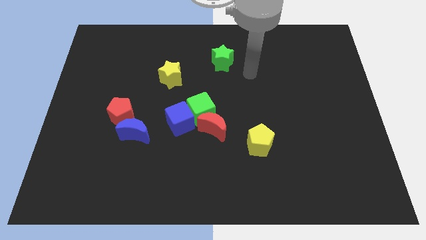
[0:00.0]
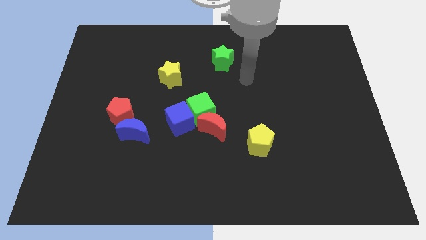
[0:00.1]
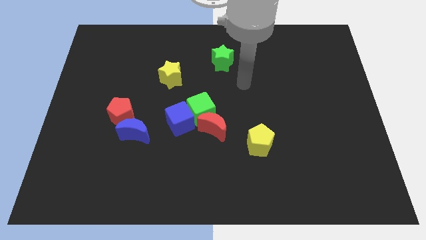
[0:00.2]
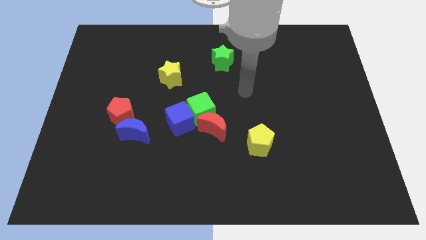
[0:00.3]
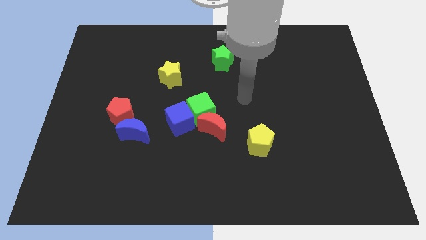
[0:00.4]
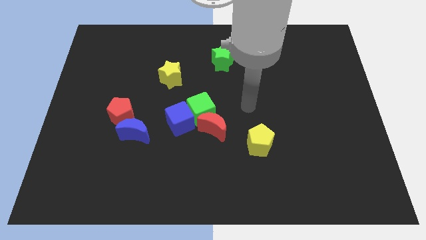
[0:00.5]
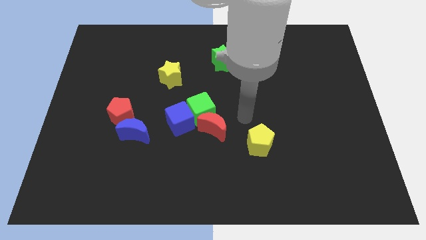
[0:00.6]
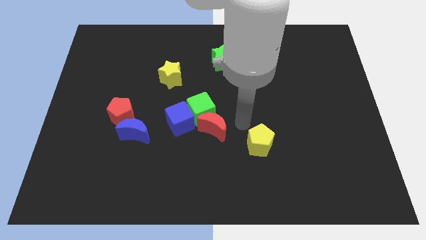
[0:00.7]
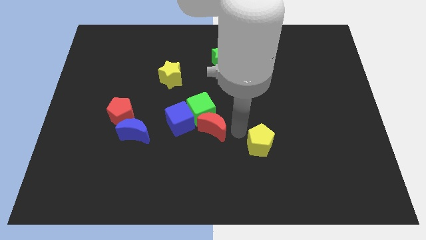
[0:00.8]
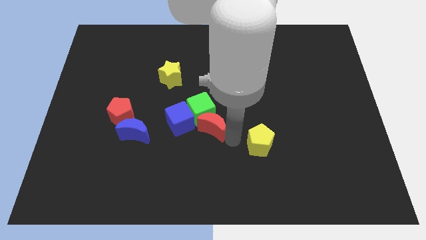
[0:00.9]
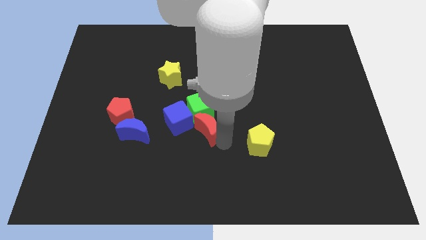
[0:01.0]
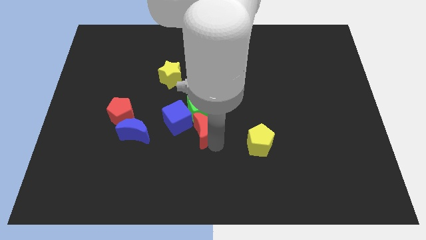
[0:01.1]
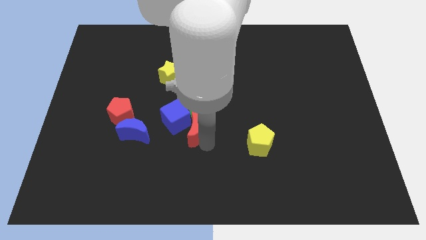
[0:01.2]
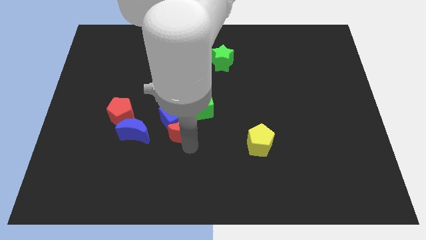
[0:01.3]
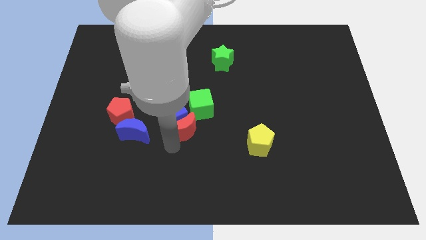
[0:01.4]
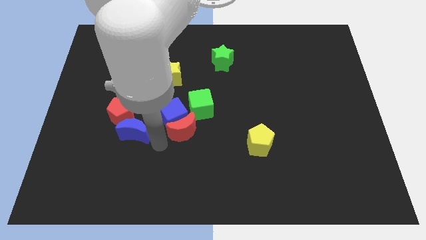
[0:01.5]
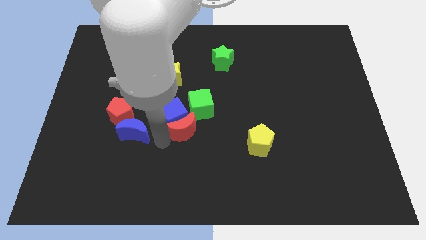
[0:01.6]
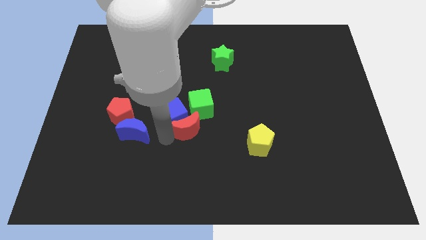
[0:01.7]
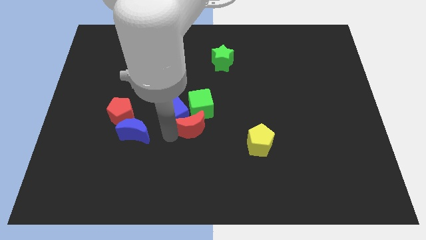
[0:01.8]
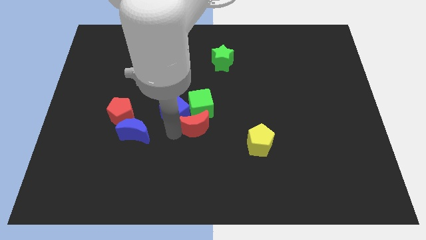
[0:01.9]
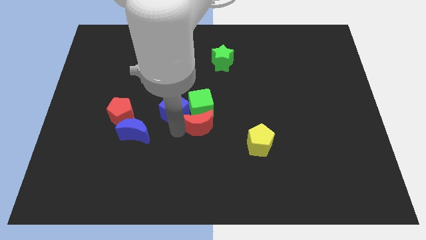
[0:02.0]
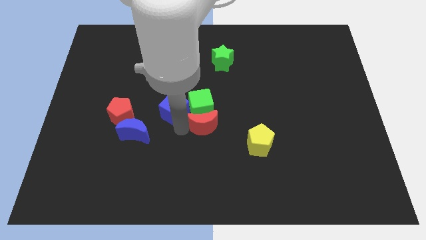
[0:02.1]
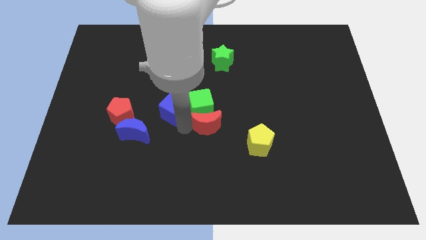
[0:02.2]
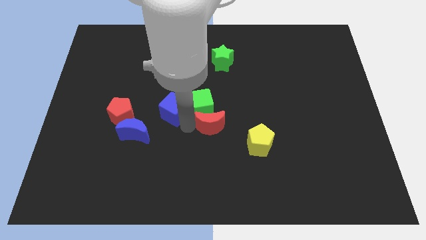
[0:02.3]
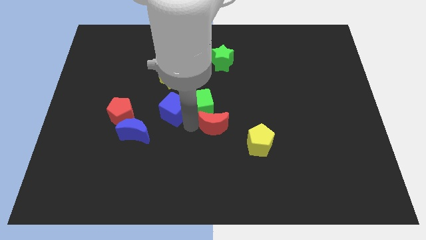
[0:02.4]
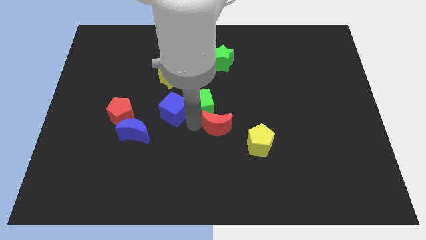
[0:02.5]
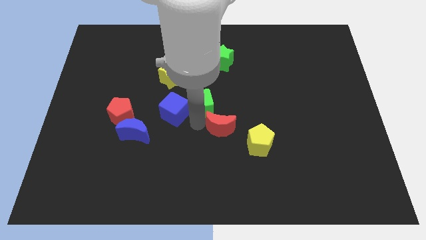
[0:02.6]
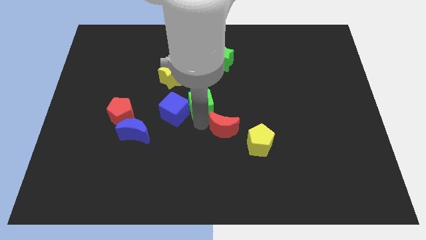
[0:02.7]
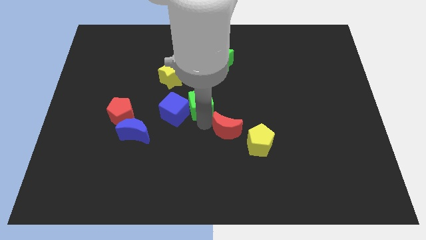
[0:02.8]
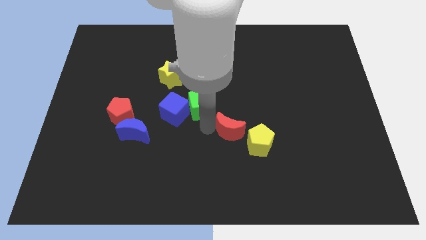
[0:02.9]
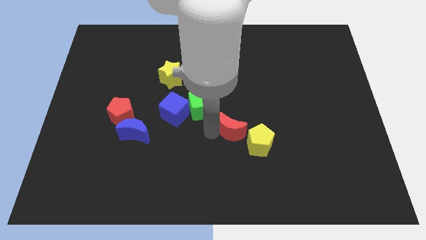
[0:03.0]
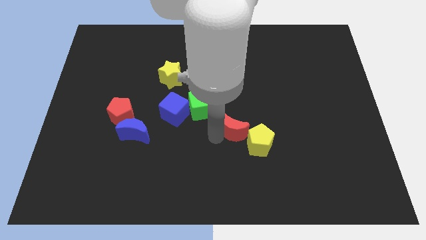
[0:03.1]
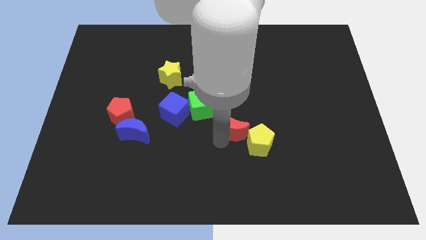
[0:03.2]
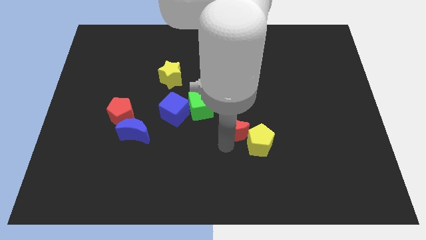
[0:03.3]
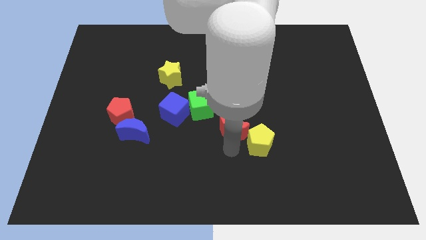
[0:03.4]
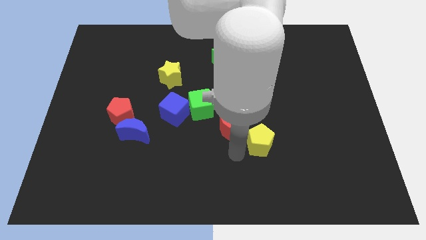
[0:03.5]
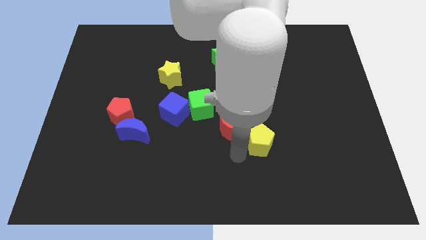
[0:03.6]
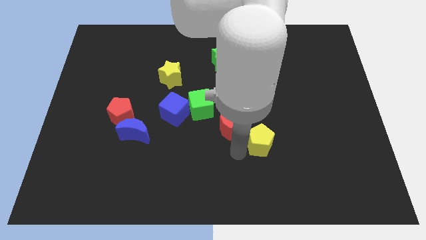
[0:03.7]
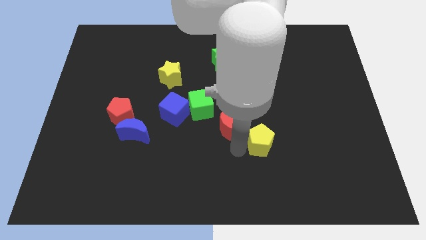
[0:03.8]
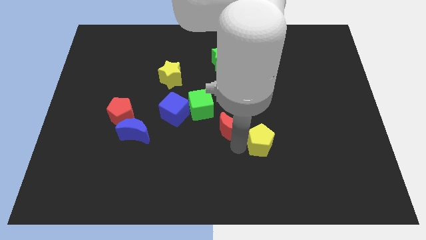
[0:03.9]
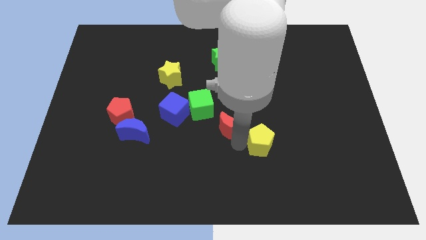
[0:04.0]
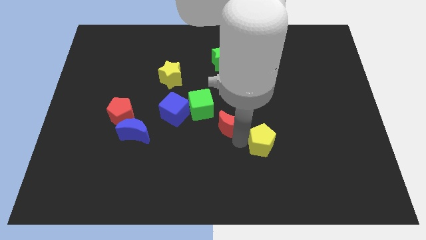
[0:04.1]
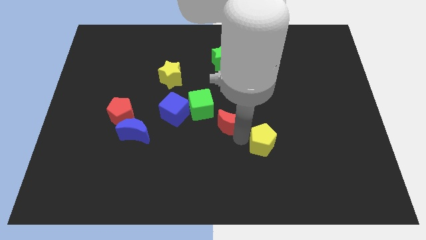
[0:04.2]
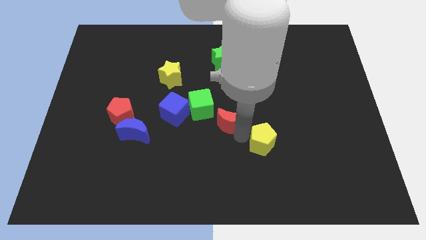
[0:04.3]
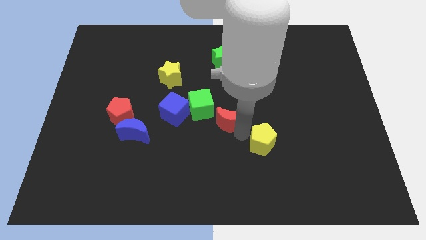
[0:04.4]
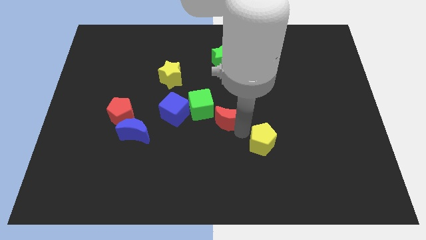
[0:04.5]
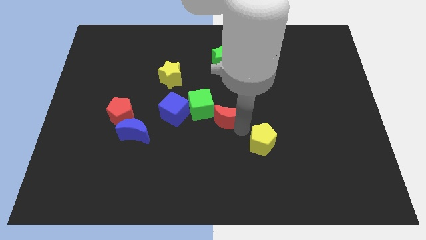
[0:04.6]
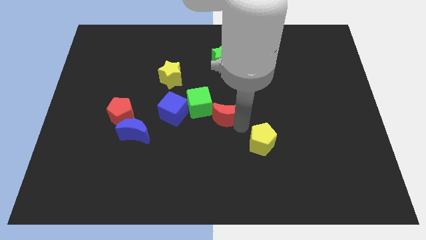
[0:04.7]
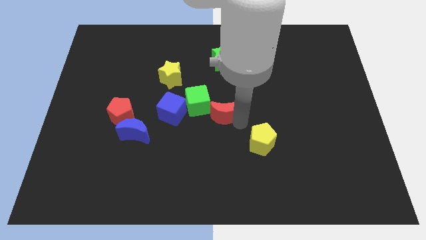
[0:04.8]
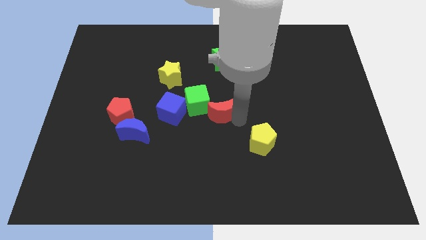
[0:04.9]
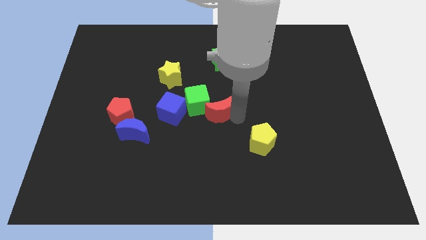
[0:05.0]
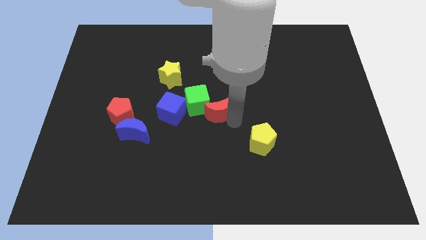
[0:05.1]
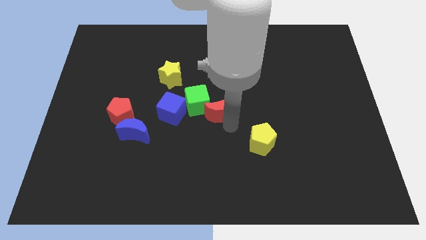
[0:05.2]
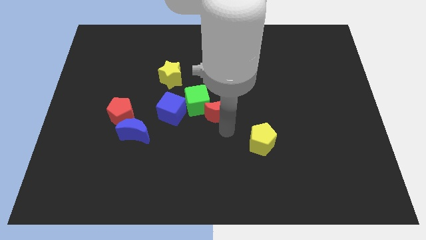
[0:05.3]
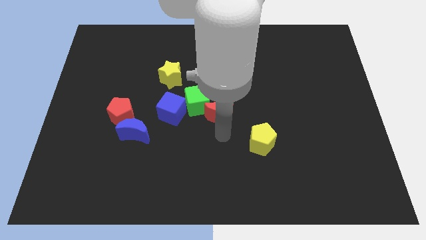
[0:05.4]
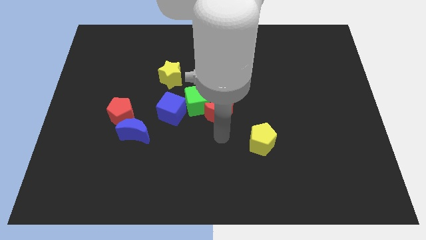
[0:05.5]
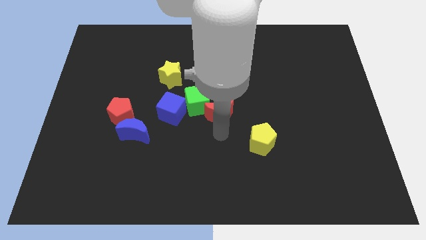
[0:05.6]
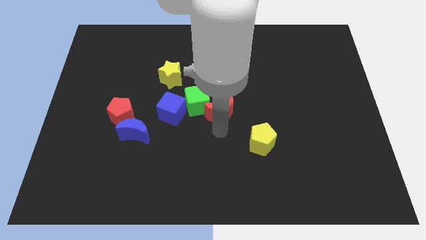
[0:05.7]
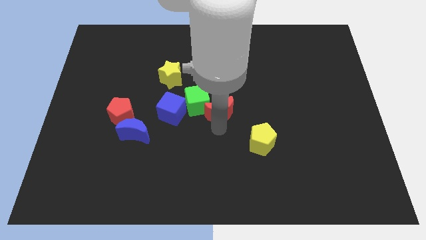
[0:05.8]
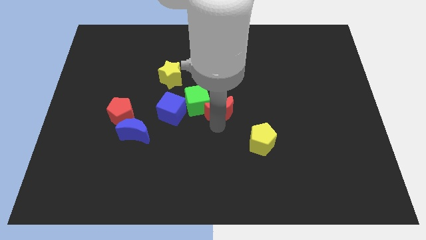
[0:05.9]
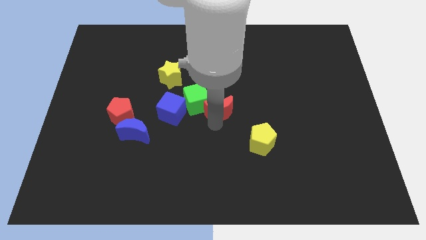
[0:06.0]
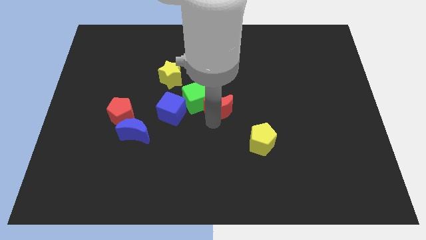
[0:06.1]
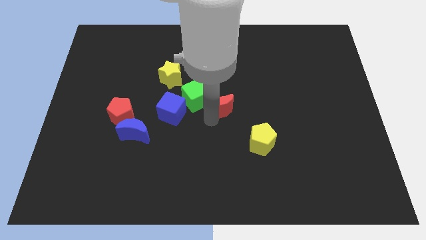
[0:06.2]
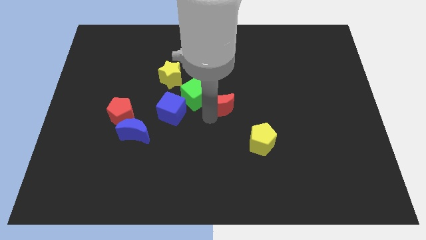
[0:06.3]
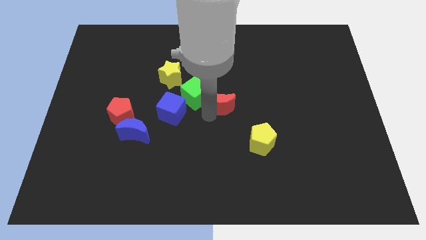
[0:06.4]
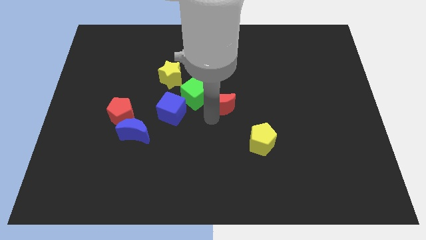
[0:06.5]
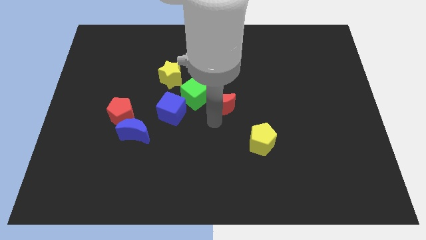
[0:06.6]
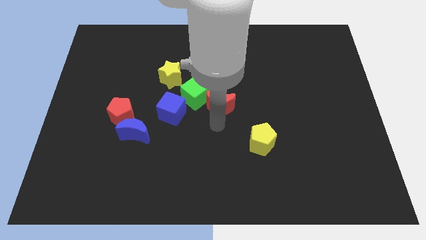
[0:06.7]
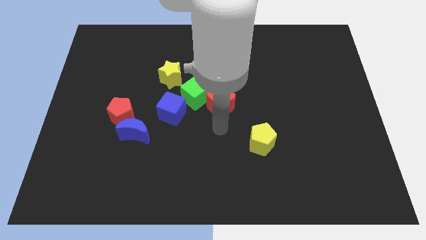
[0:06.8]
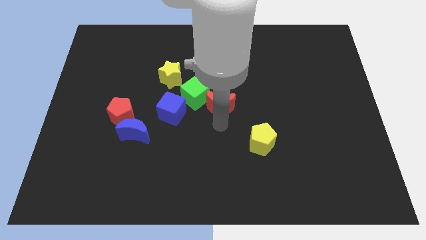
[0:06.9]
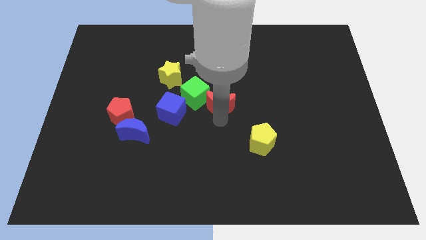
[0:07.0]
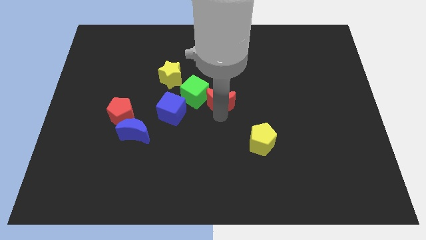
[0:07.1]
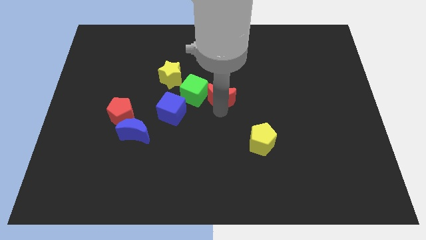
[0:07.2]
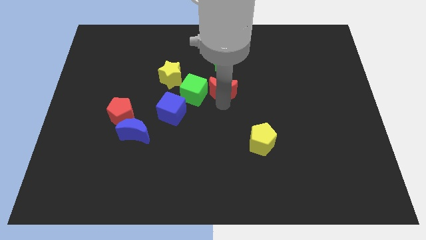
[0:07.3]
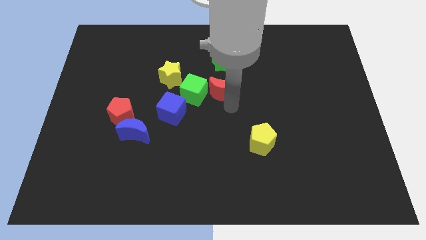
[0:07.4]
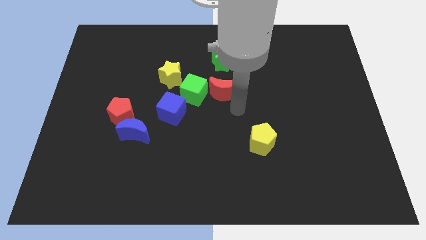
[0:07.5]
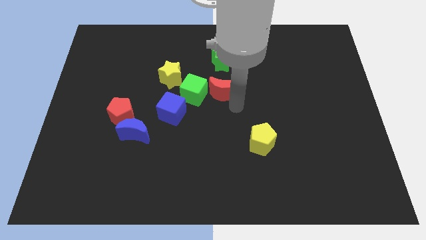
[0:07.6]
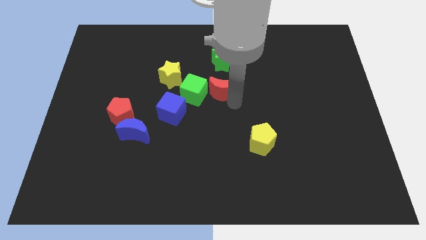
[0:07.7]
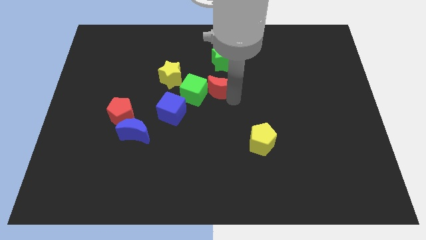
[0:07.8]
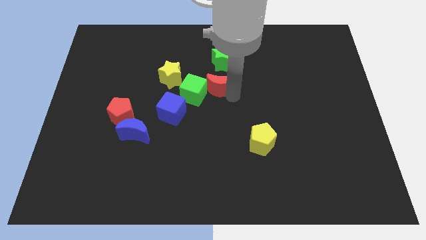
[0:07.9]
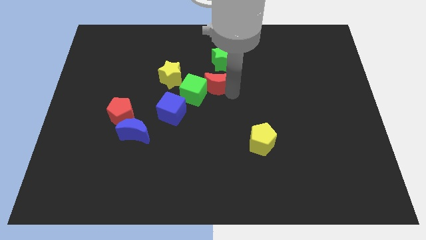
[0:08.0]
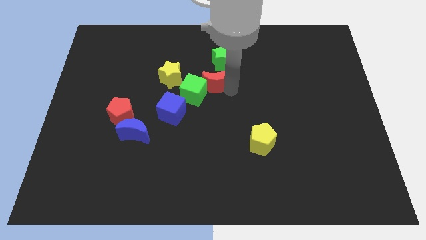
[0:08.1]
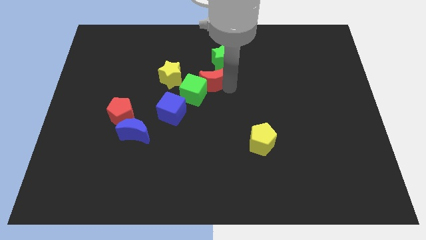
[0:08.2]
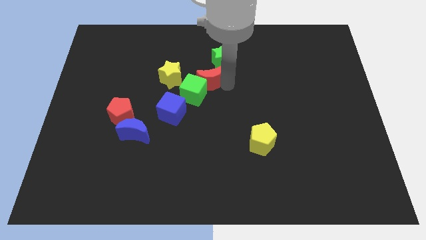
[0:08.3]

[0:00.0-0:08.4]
put the red moon to the top side of the green cube
